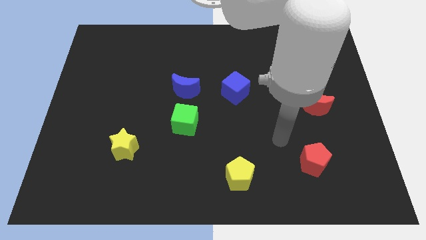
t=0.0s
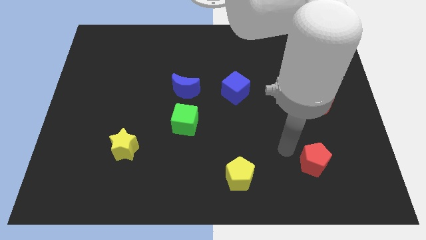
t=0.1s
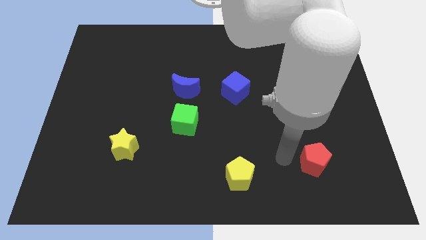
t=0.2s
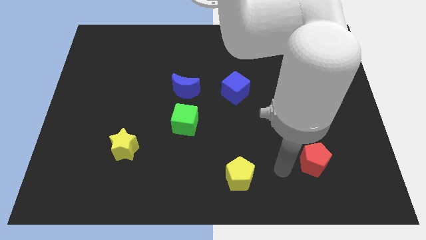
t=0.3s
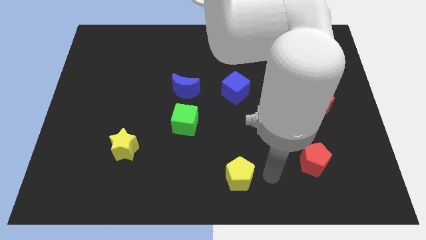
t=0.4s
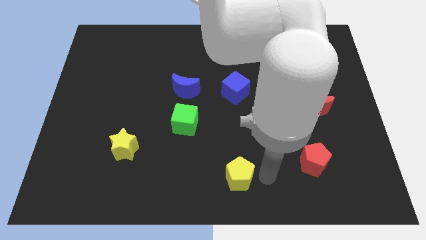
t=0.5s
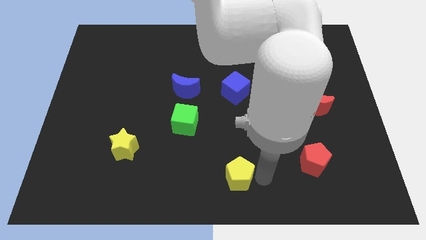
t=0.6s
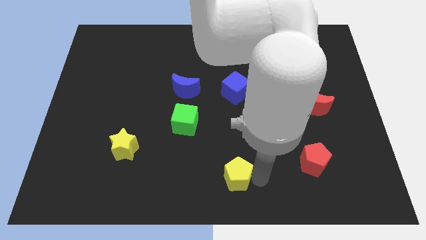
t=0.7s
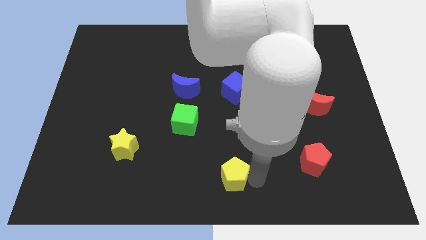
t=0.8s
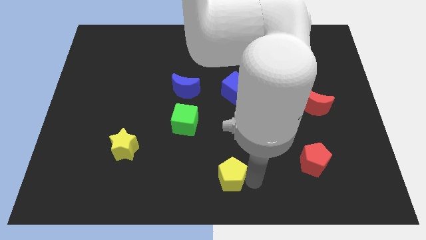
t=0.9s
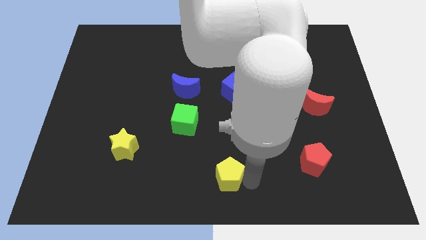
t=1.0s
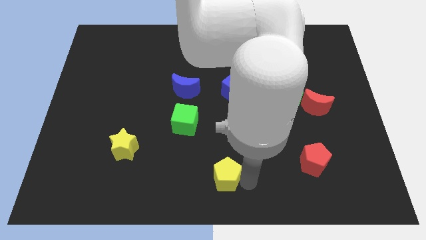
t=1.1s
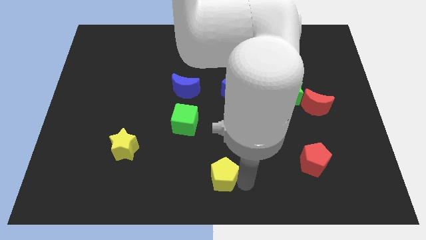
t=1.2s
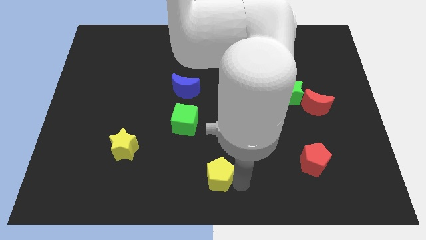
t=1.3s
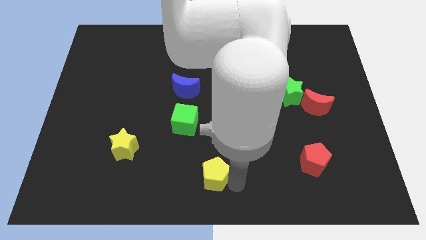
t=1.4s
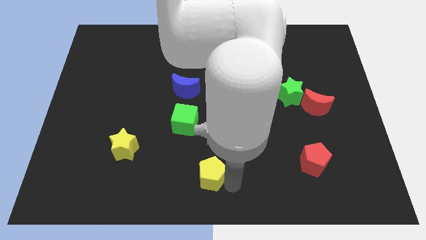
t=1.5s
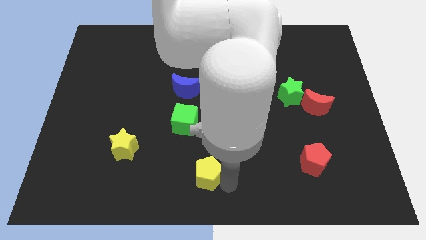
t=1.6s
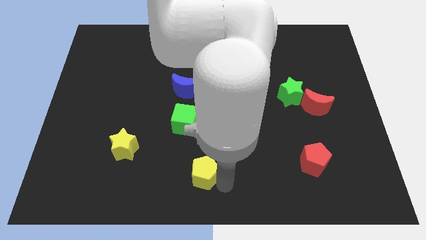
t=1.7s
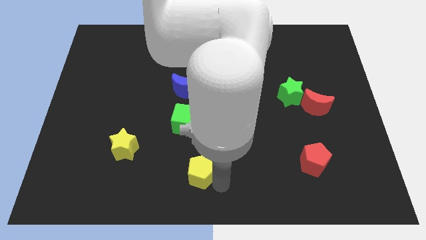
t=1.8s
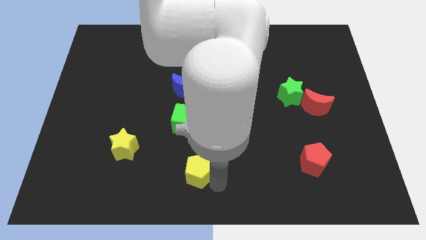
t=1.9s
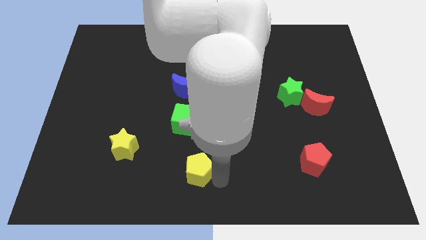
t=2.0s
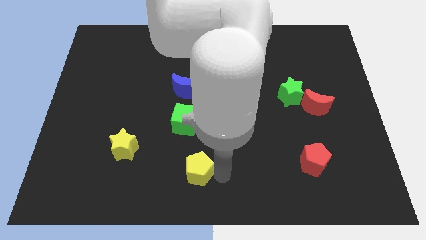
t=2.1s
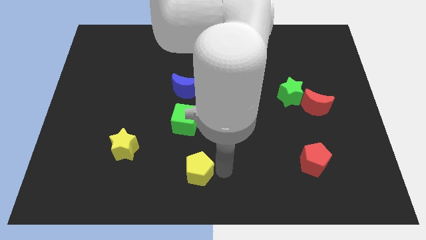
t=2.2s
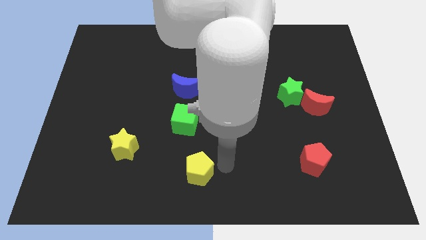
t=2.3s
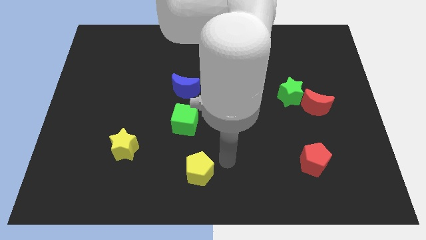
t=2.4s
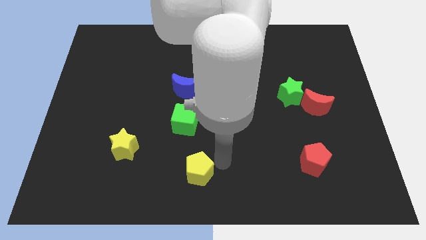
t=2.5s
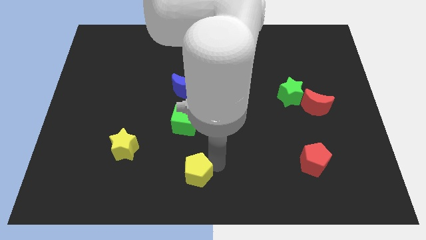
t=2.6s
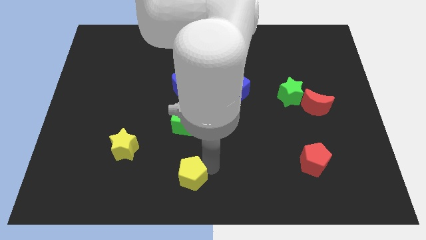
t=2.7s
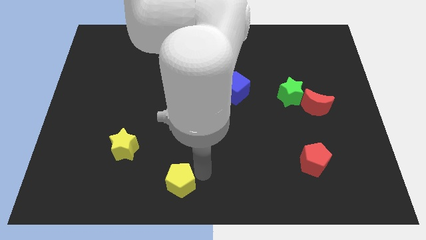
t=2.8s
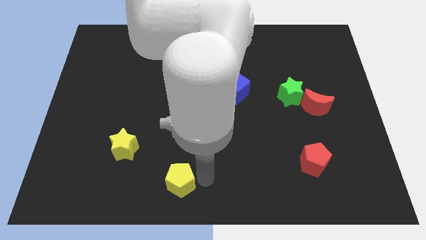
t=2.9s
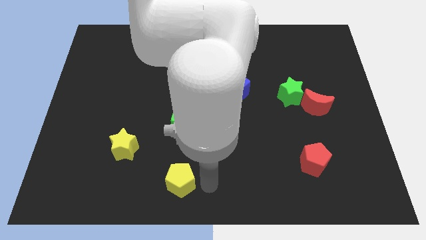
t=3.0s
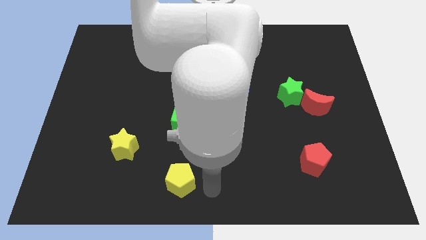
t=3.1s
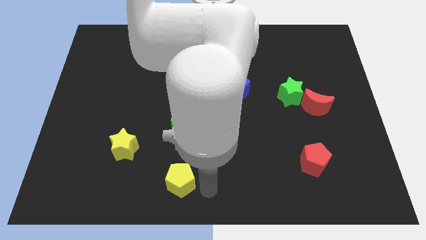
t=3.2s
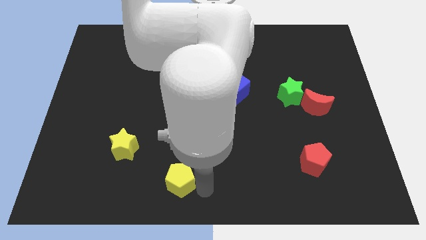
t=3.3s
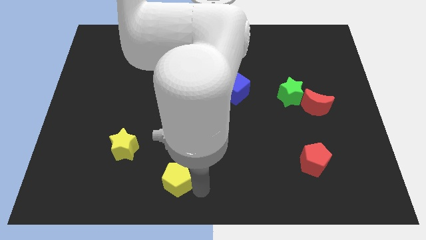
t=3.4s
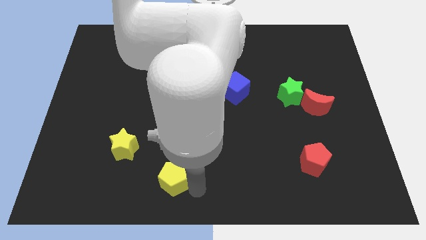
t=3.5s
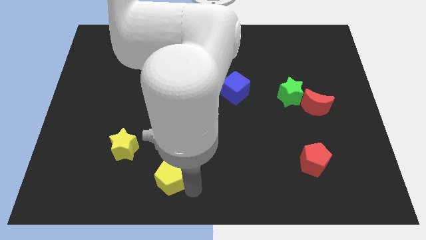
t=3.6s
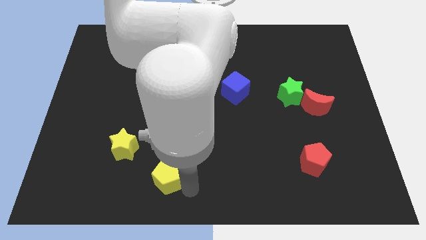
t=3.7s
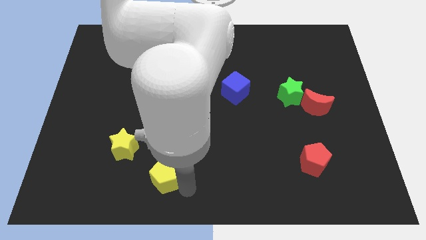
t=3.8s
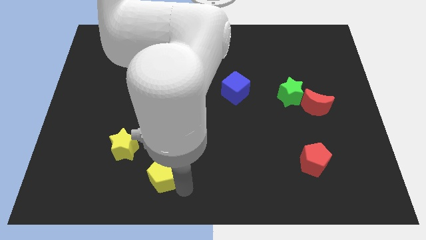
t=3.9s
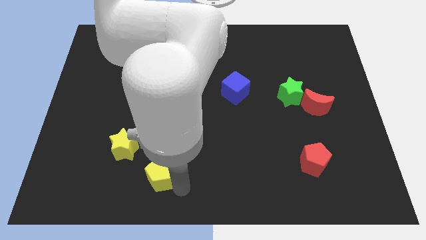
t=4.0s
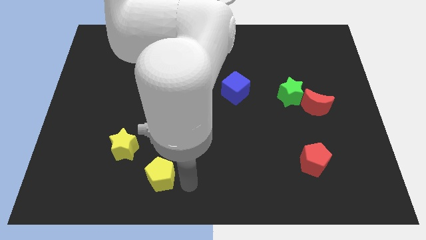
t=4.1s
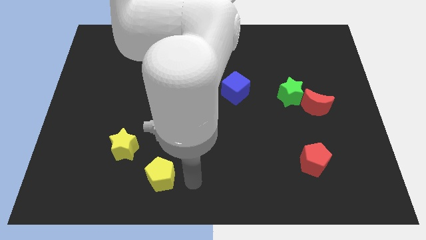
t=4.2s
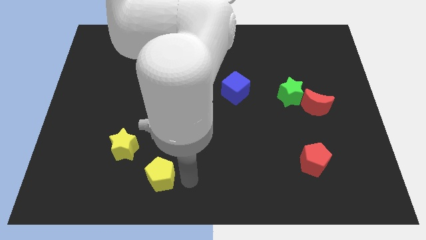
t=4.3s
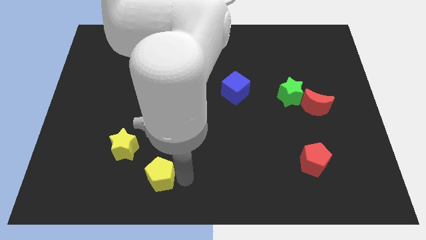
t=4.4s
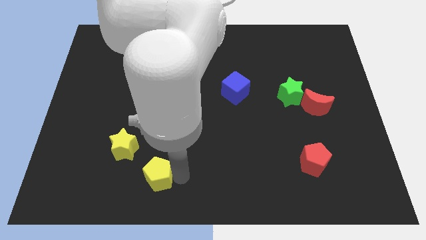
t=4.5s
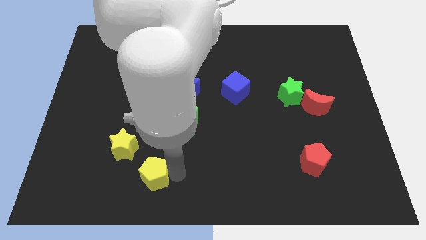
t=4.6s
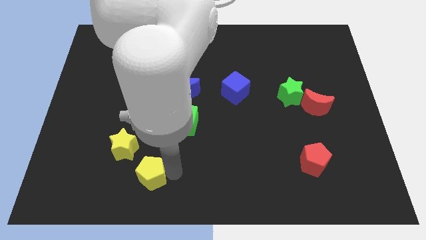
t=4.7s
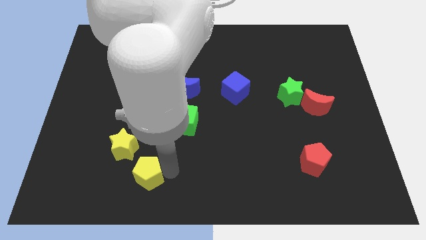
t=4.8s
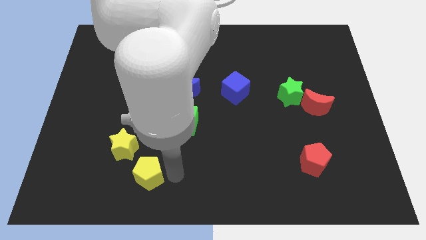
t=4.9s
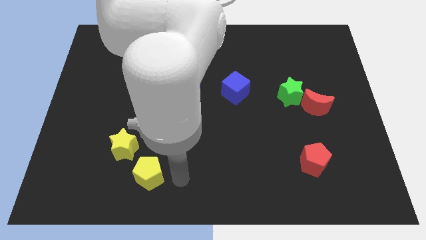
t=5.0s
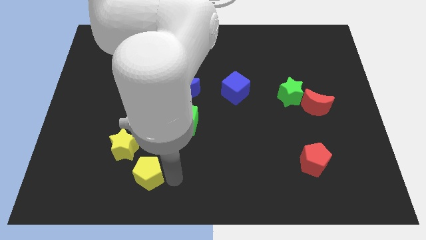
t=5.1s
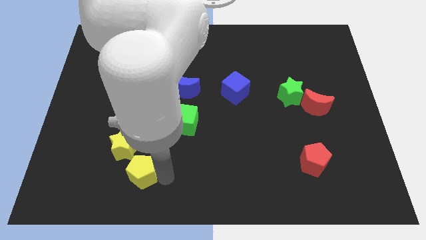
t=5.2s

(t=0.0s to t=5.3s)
move the yellow pentagon to the left

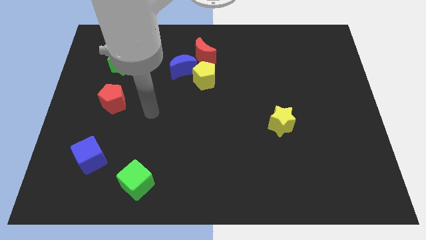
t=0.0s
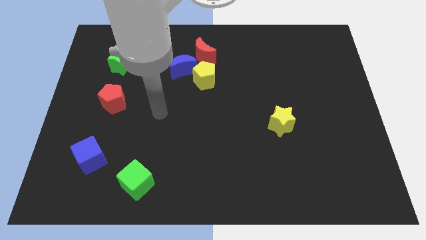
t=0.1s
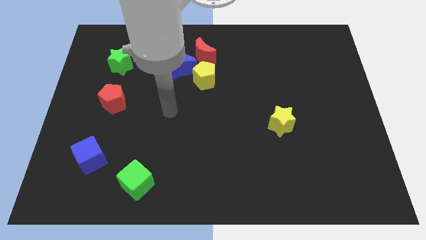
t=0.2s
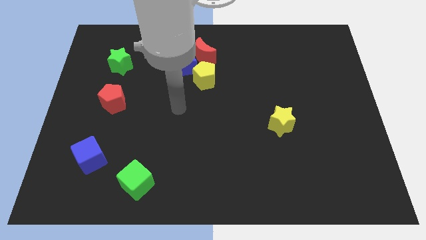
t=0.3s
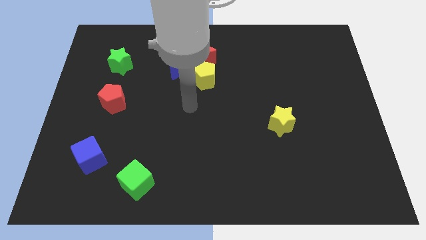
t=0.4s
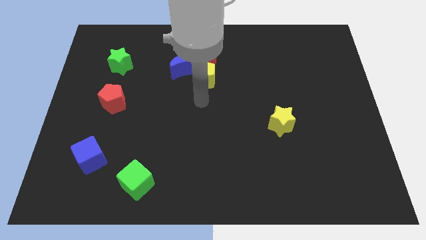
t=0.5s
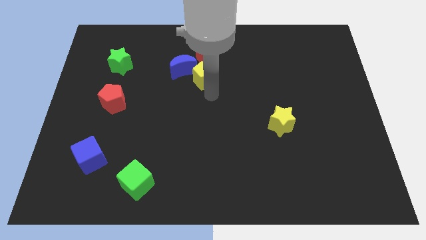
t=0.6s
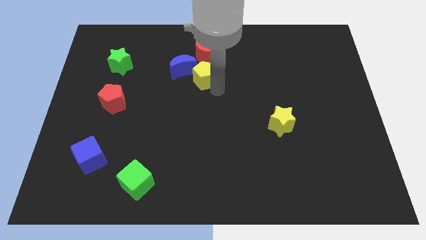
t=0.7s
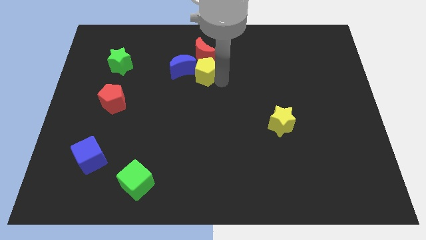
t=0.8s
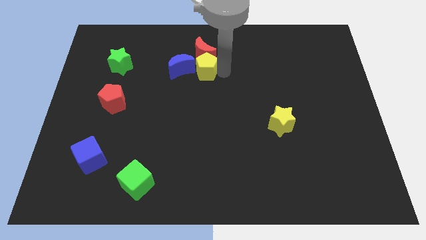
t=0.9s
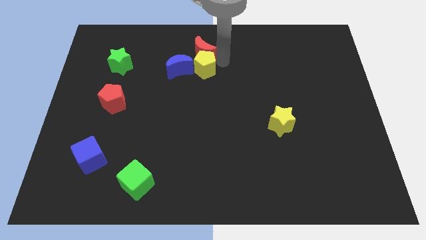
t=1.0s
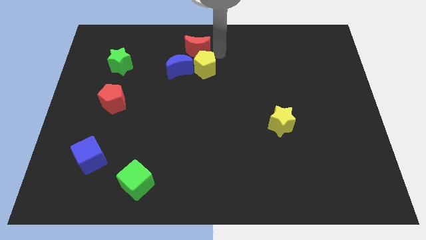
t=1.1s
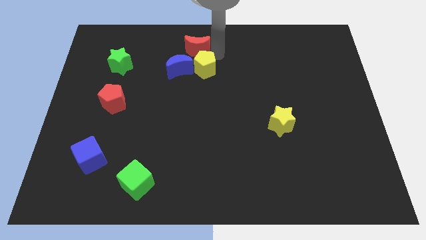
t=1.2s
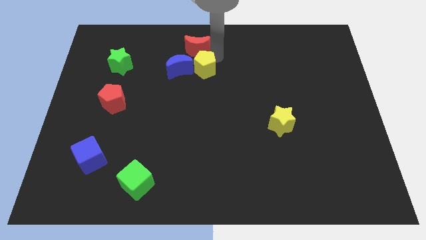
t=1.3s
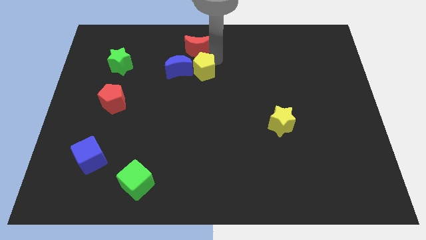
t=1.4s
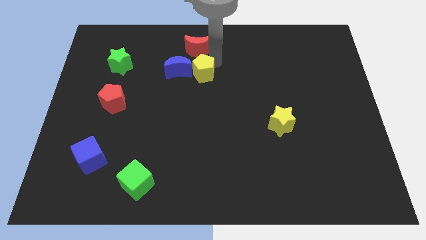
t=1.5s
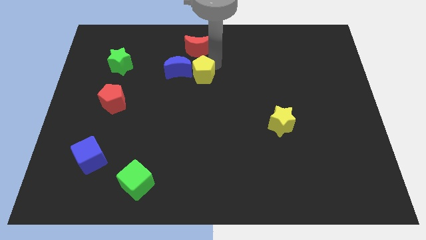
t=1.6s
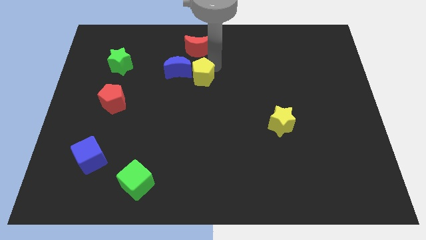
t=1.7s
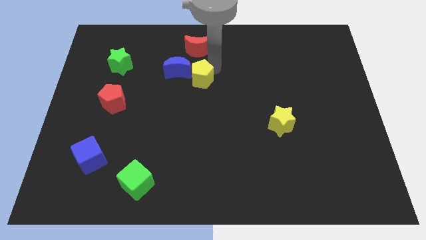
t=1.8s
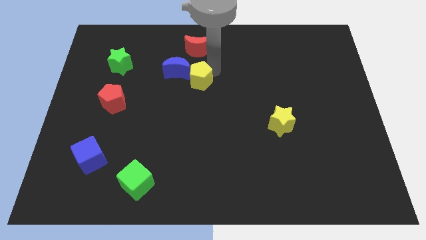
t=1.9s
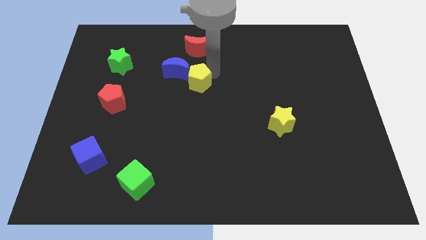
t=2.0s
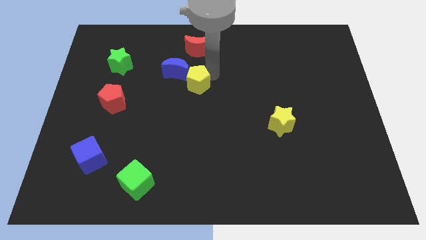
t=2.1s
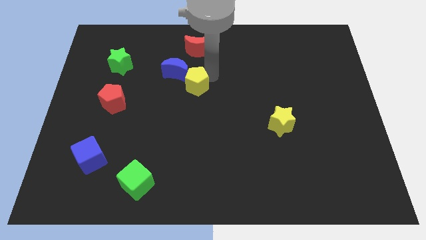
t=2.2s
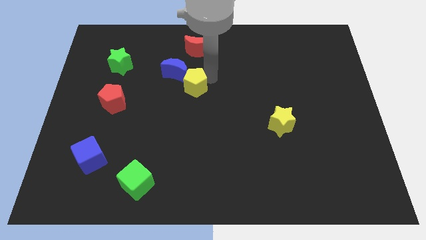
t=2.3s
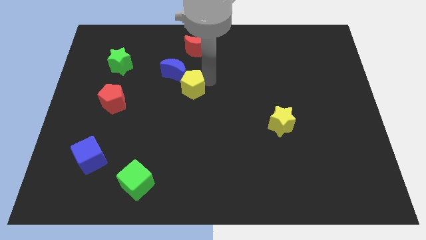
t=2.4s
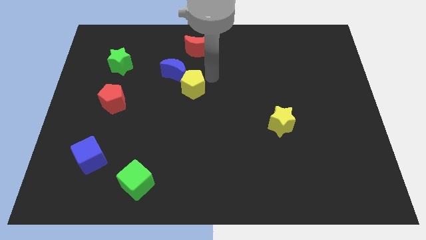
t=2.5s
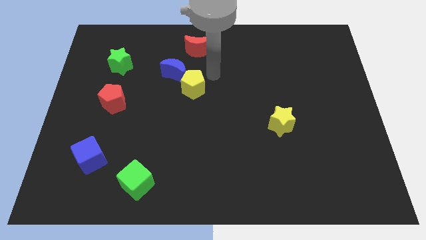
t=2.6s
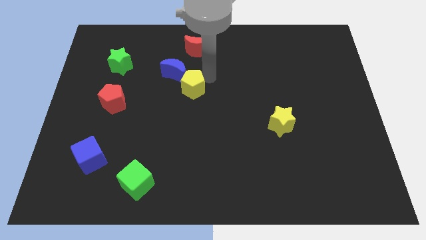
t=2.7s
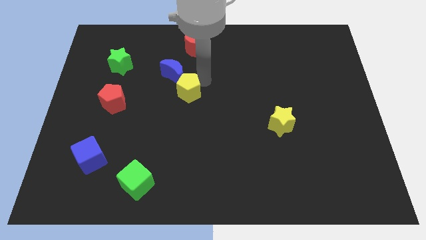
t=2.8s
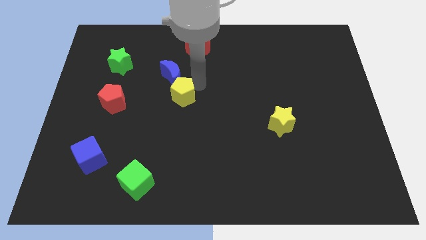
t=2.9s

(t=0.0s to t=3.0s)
slightly slide the yellow pentagon diagonally downwards and left
